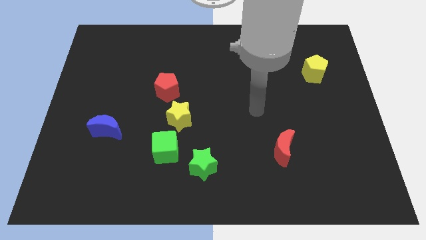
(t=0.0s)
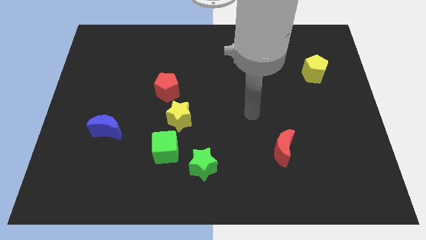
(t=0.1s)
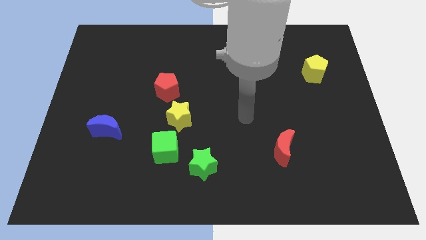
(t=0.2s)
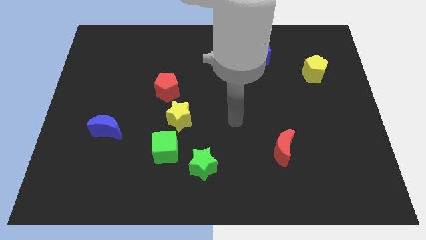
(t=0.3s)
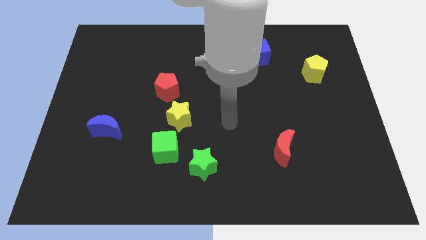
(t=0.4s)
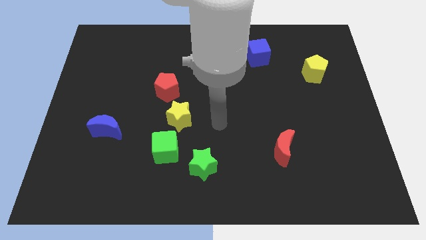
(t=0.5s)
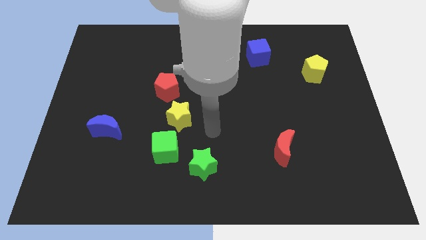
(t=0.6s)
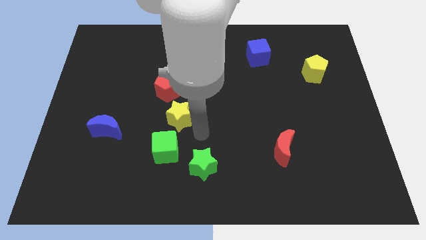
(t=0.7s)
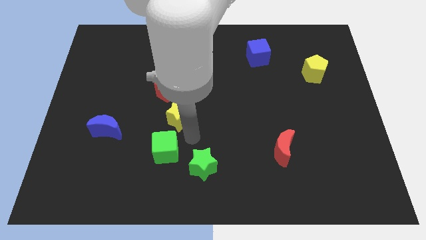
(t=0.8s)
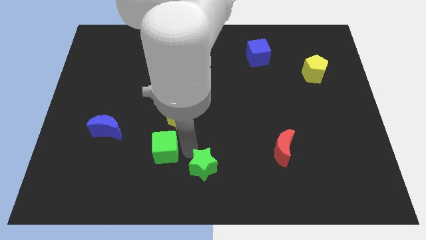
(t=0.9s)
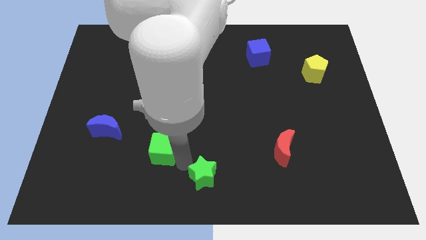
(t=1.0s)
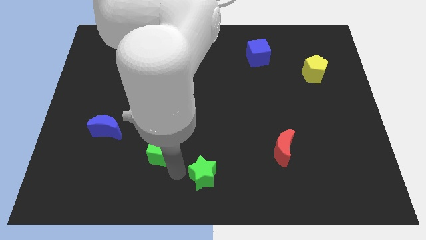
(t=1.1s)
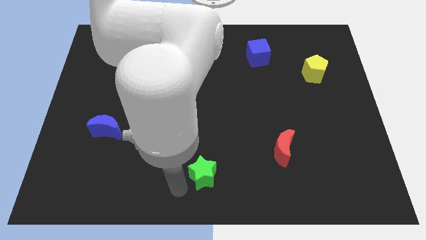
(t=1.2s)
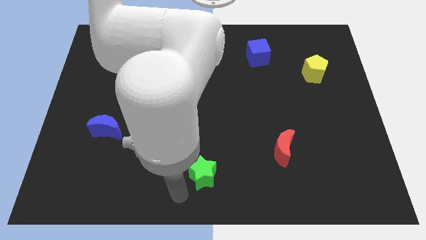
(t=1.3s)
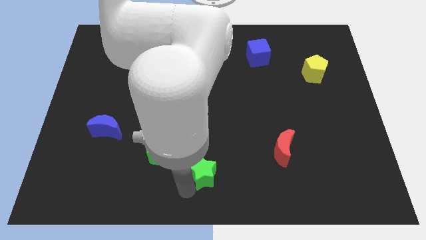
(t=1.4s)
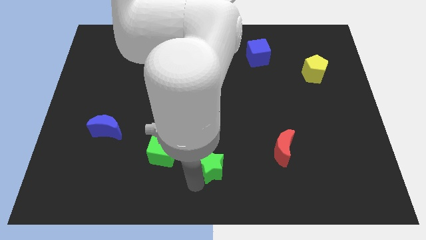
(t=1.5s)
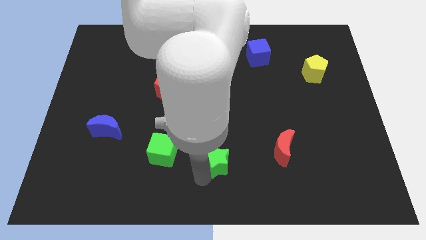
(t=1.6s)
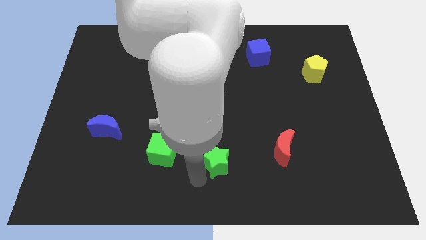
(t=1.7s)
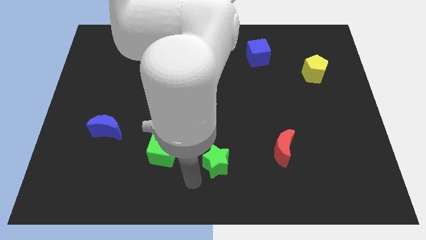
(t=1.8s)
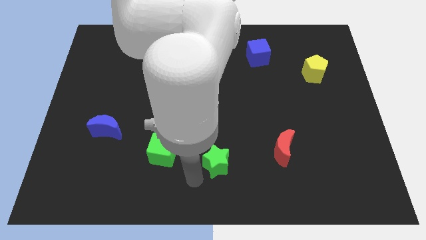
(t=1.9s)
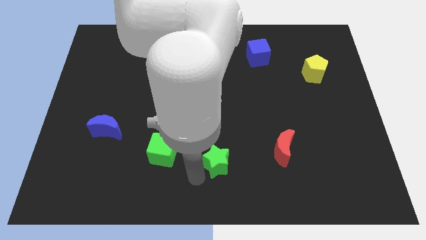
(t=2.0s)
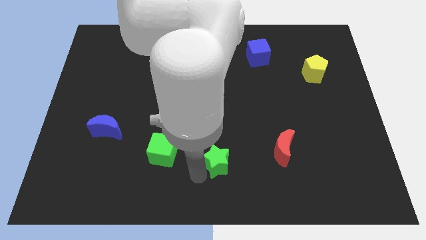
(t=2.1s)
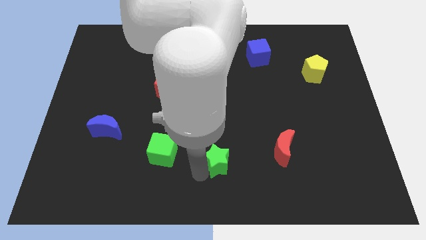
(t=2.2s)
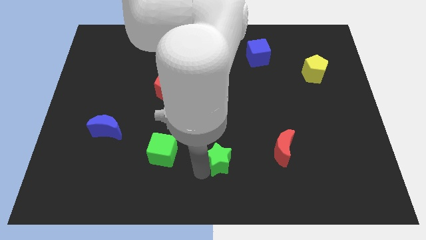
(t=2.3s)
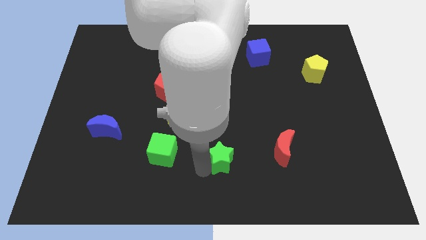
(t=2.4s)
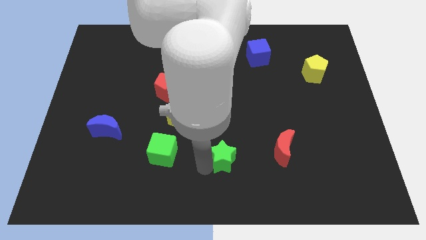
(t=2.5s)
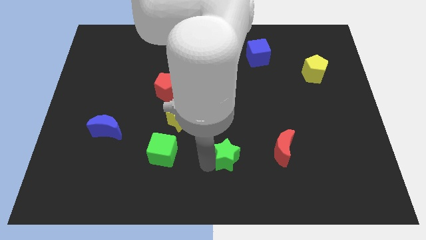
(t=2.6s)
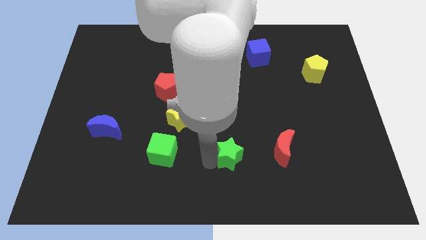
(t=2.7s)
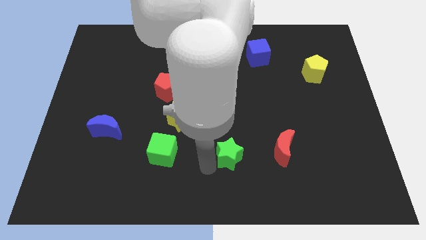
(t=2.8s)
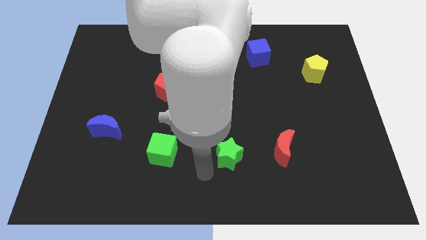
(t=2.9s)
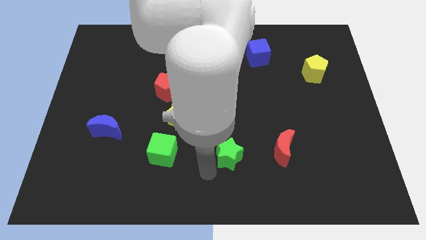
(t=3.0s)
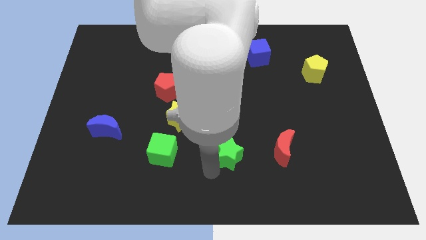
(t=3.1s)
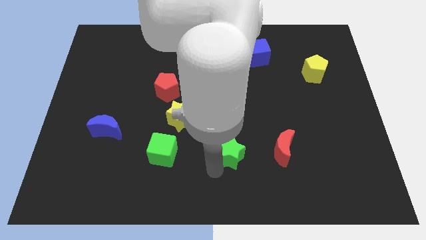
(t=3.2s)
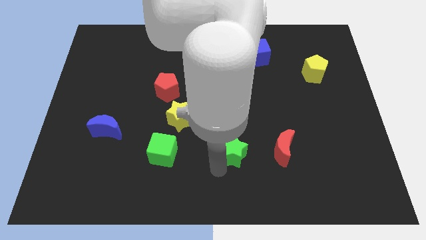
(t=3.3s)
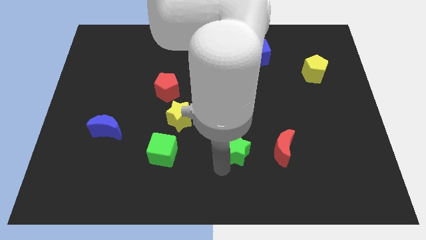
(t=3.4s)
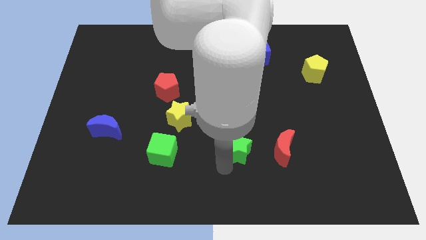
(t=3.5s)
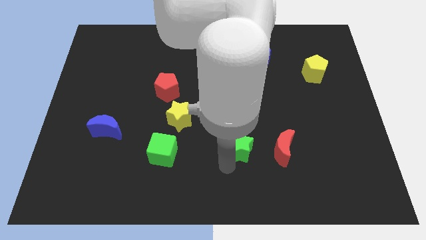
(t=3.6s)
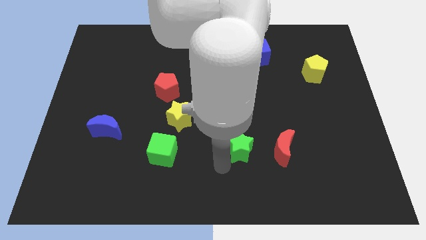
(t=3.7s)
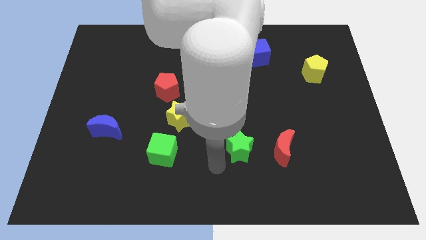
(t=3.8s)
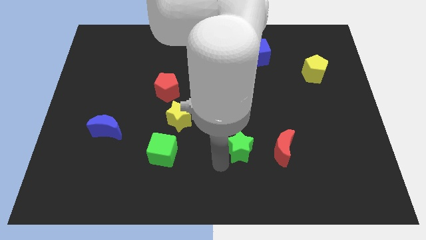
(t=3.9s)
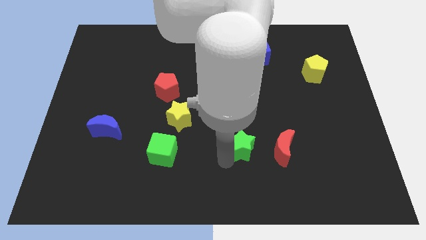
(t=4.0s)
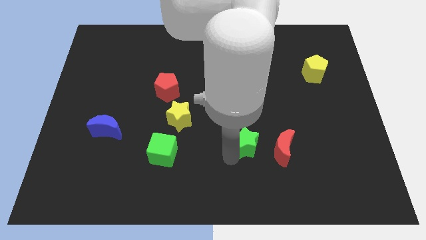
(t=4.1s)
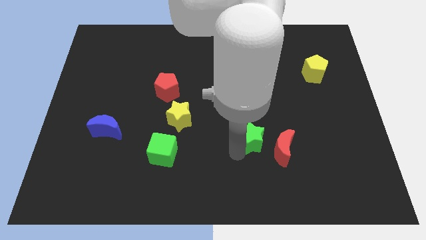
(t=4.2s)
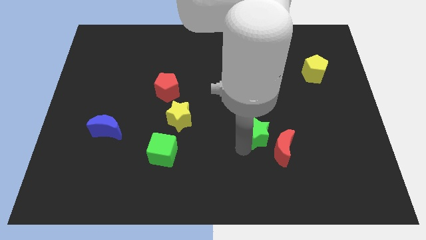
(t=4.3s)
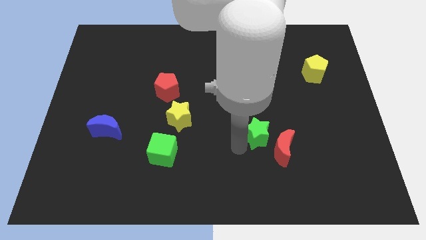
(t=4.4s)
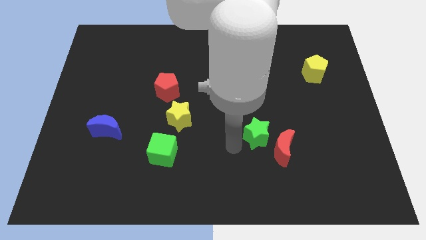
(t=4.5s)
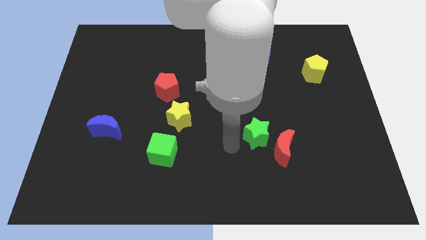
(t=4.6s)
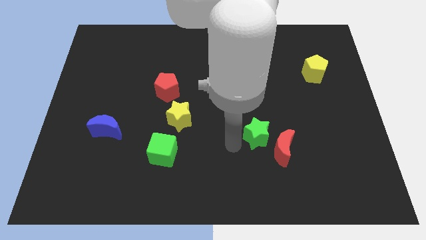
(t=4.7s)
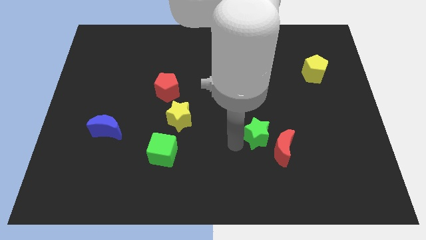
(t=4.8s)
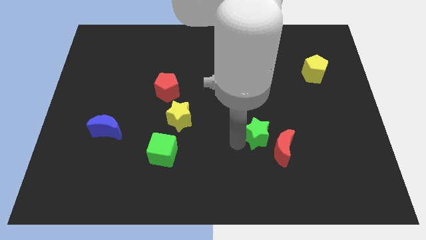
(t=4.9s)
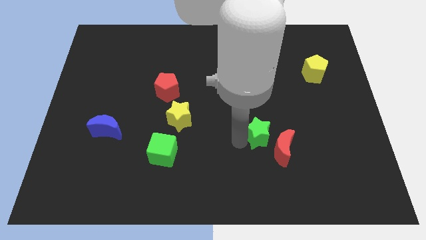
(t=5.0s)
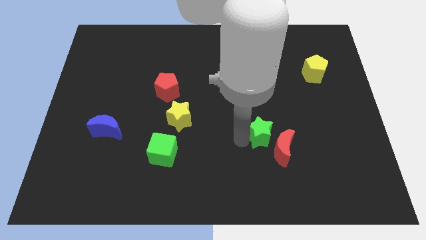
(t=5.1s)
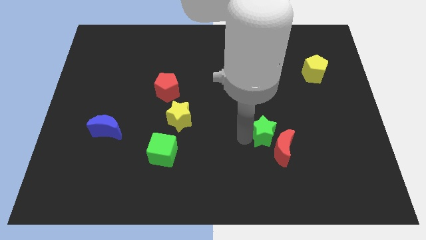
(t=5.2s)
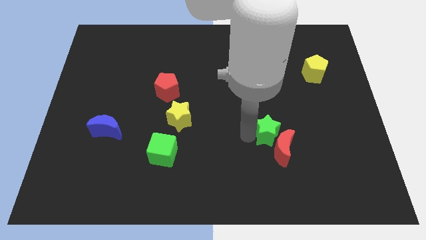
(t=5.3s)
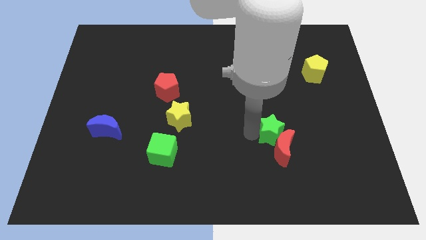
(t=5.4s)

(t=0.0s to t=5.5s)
push the green star to the top right of the red moon

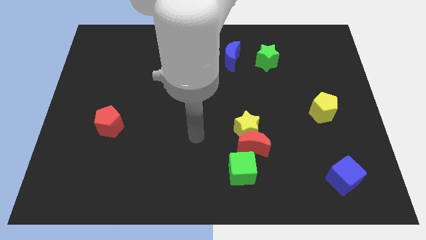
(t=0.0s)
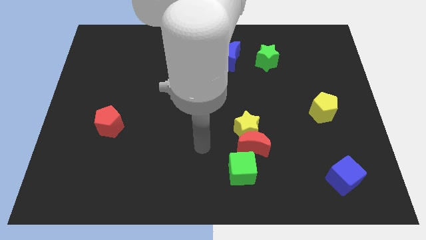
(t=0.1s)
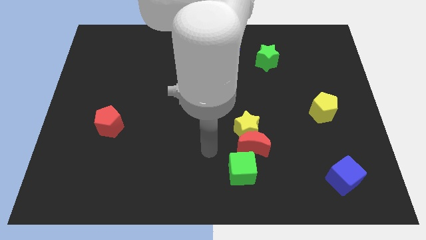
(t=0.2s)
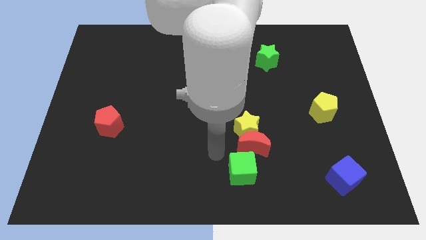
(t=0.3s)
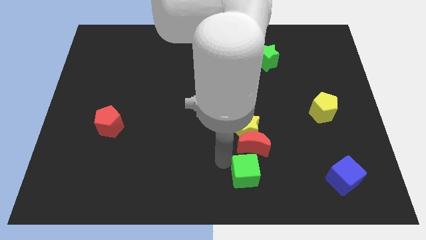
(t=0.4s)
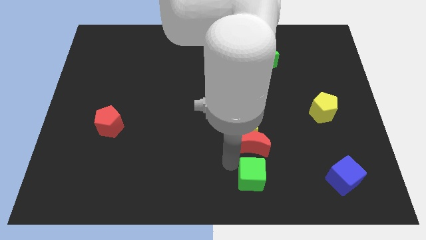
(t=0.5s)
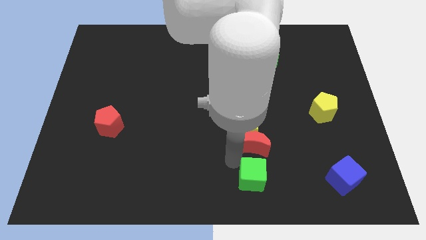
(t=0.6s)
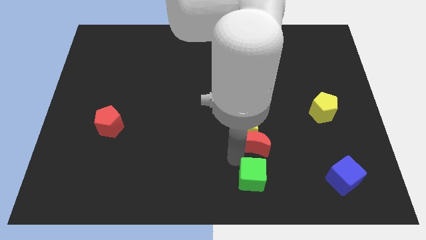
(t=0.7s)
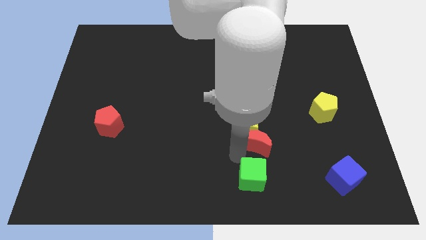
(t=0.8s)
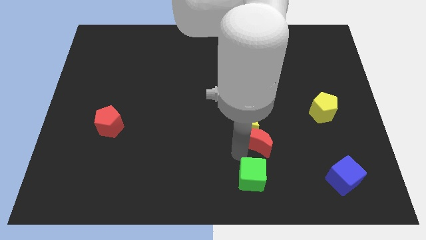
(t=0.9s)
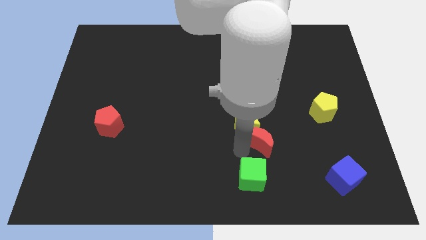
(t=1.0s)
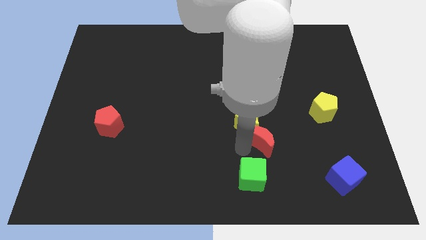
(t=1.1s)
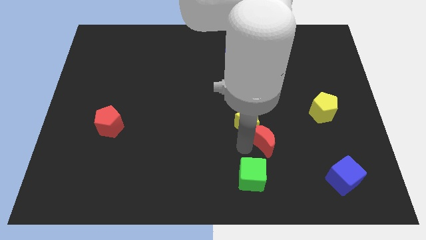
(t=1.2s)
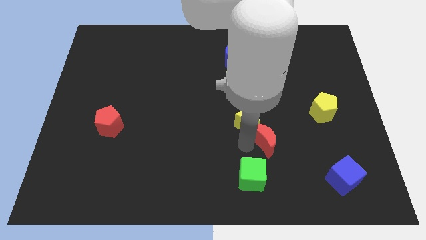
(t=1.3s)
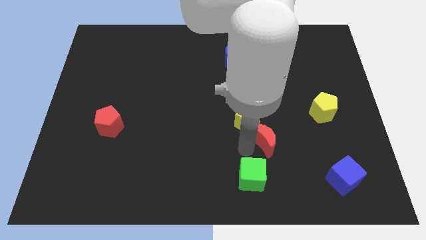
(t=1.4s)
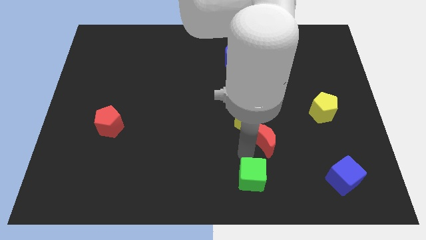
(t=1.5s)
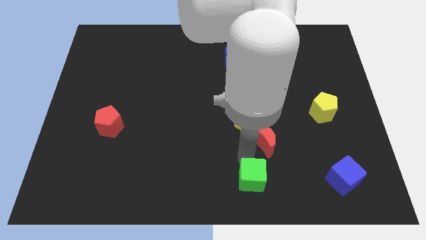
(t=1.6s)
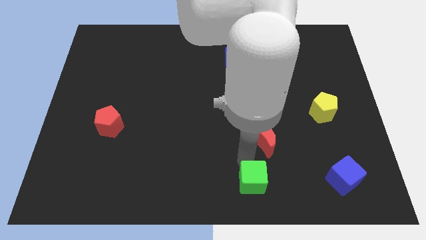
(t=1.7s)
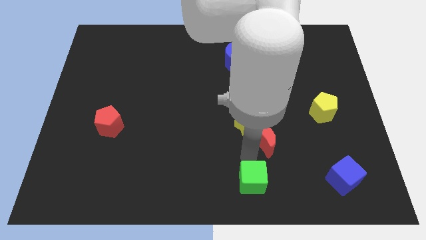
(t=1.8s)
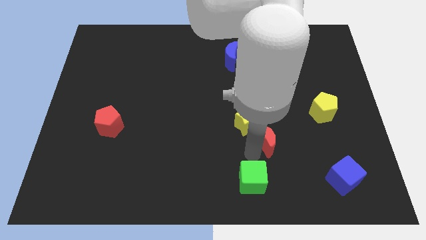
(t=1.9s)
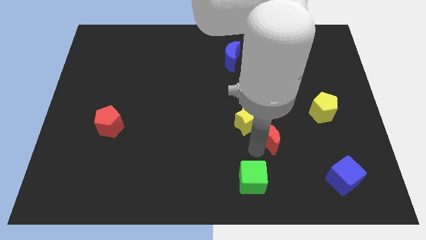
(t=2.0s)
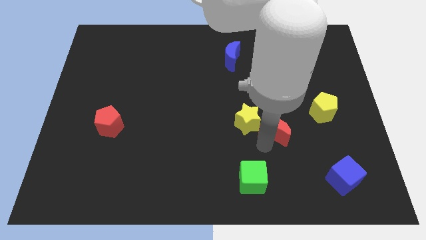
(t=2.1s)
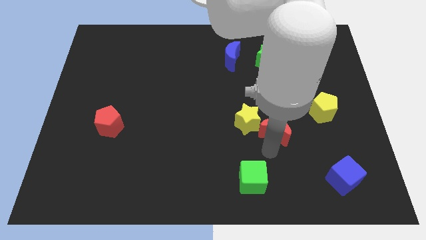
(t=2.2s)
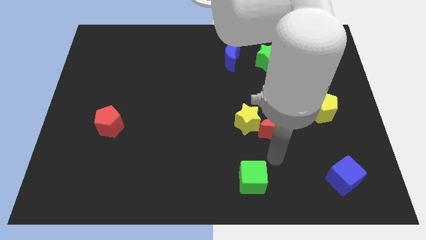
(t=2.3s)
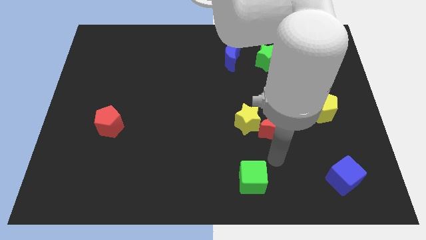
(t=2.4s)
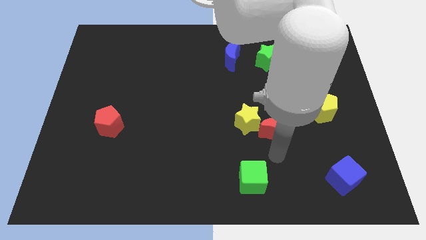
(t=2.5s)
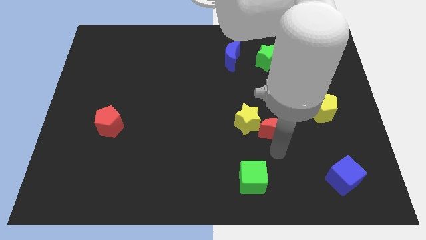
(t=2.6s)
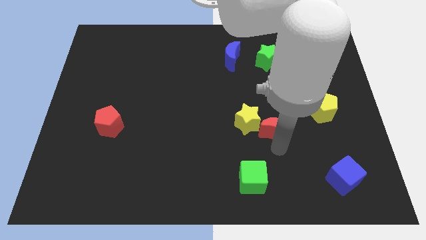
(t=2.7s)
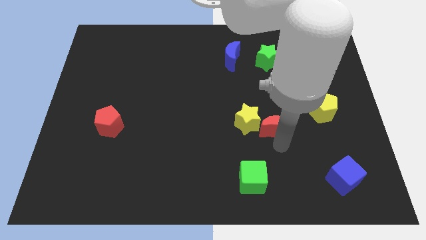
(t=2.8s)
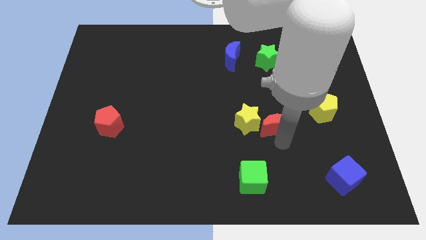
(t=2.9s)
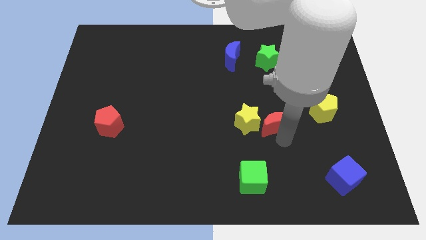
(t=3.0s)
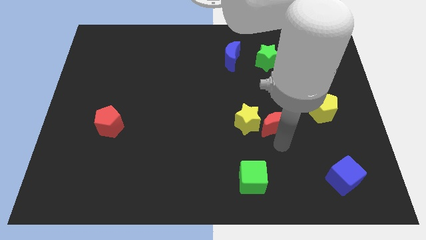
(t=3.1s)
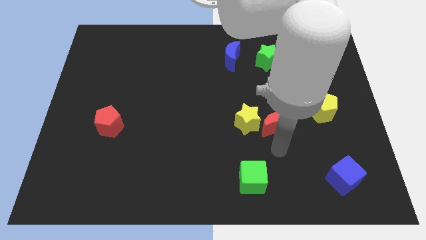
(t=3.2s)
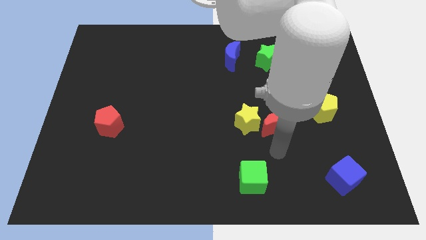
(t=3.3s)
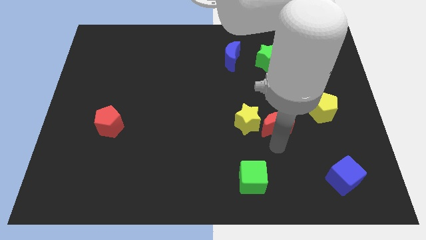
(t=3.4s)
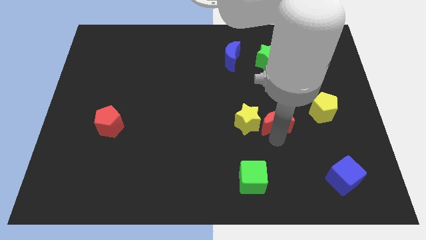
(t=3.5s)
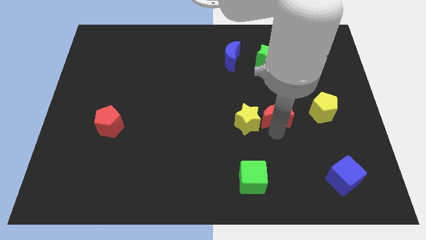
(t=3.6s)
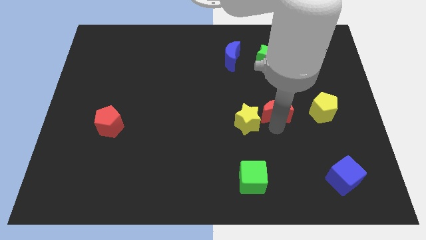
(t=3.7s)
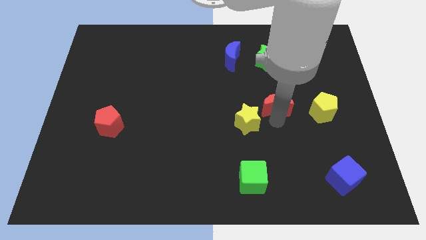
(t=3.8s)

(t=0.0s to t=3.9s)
move the red moon to the bottom of the green star
